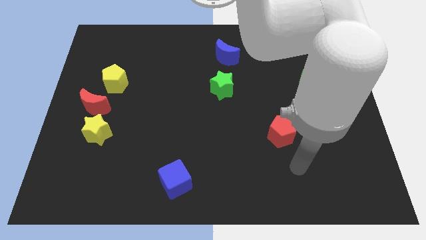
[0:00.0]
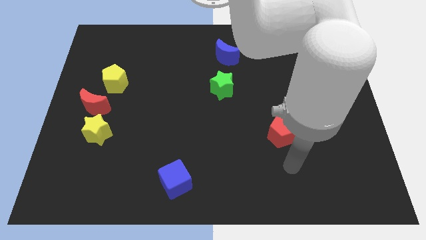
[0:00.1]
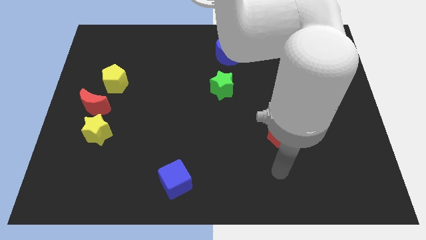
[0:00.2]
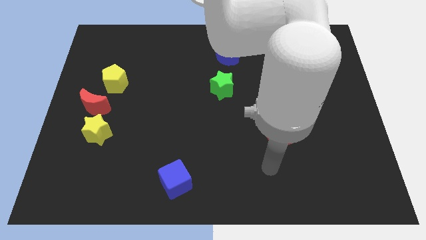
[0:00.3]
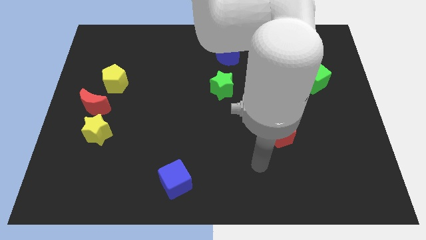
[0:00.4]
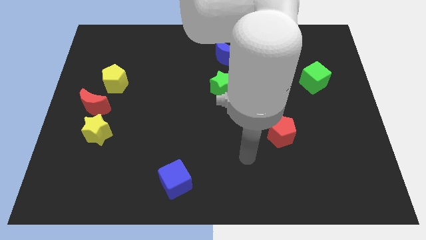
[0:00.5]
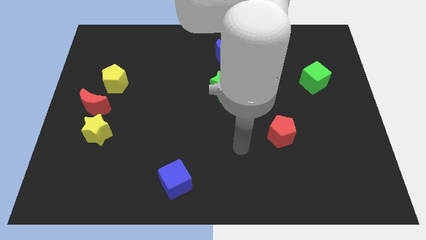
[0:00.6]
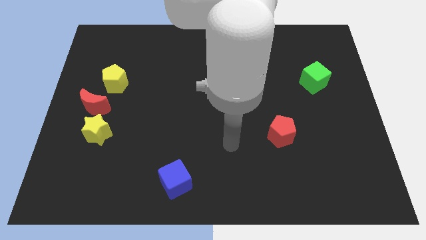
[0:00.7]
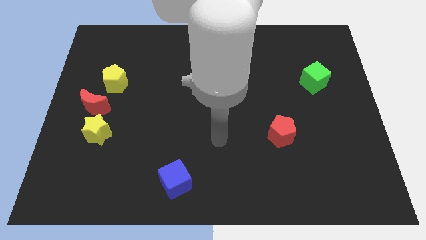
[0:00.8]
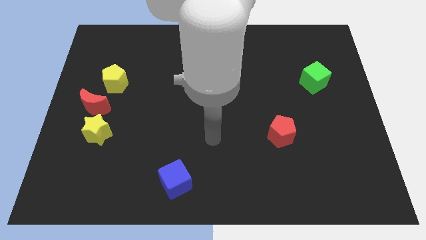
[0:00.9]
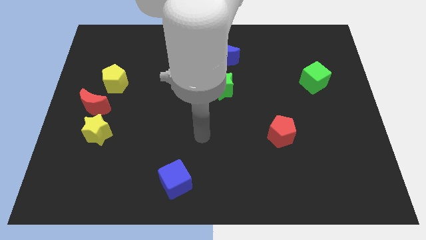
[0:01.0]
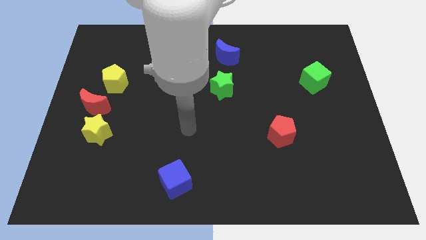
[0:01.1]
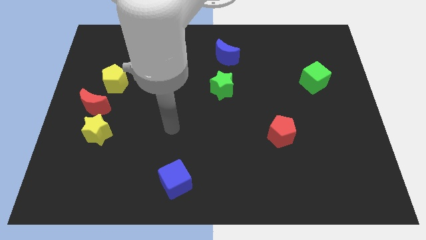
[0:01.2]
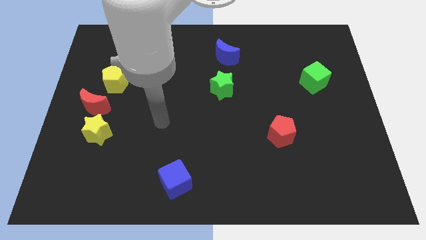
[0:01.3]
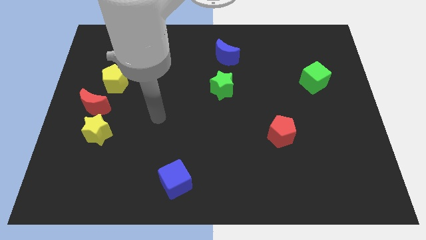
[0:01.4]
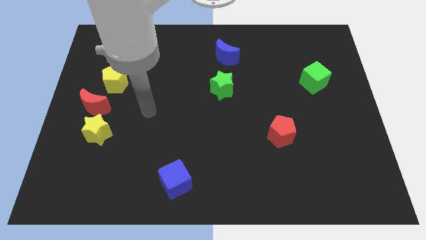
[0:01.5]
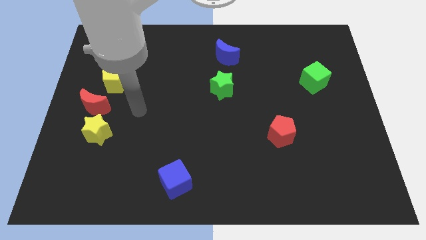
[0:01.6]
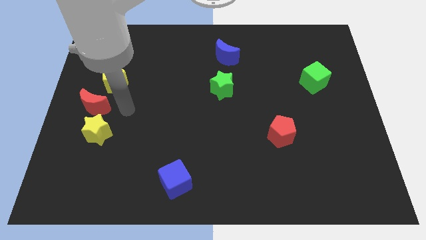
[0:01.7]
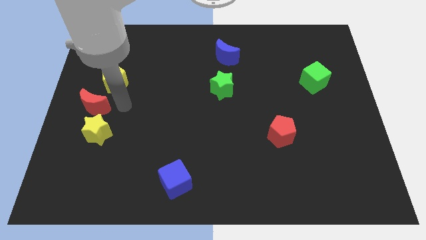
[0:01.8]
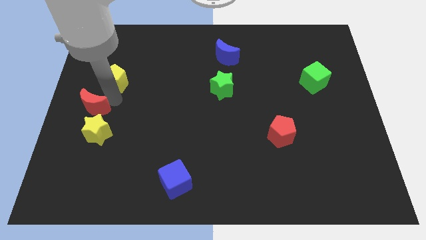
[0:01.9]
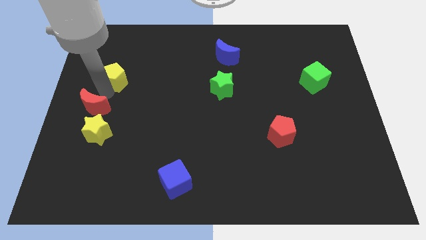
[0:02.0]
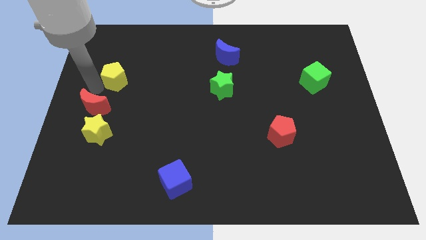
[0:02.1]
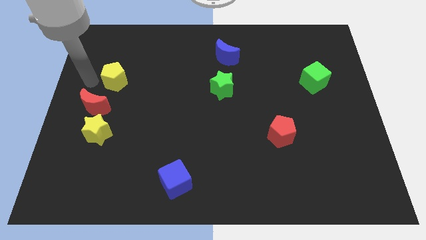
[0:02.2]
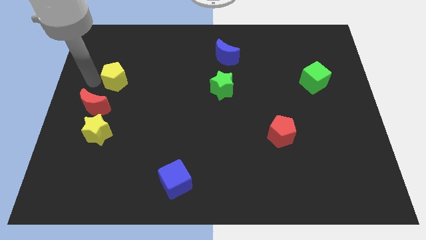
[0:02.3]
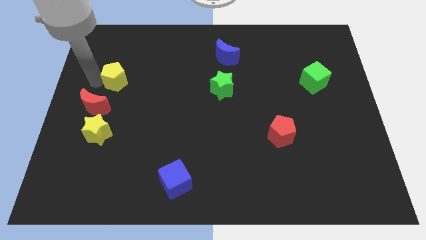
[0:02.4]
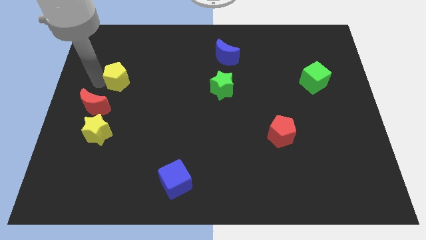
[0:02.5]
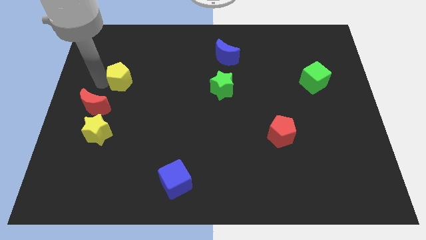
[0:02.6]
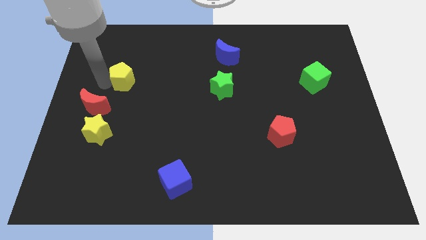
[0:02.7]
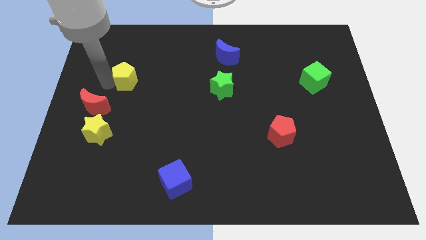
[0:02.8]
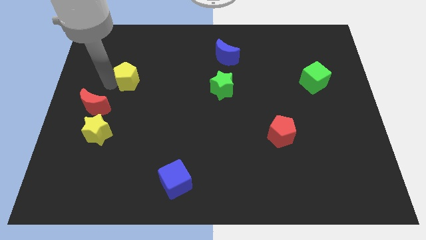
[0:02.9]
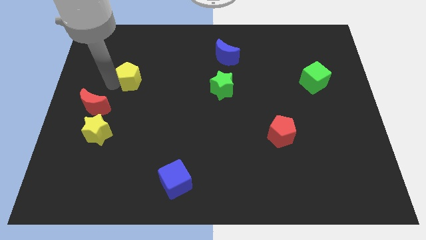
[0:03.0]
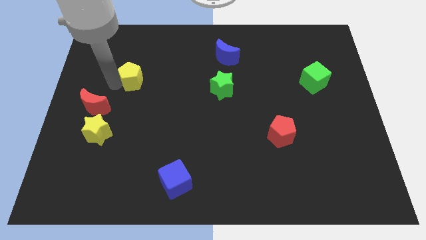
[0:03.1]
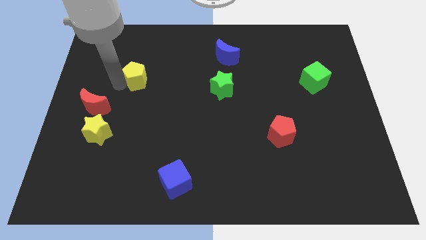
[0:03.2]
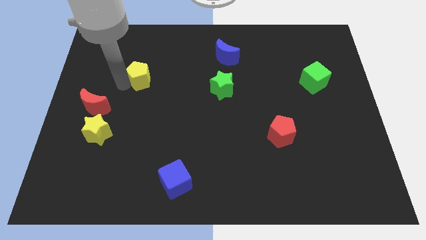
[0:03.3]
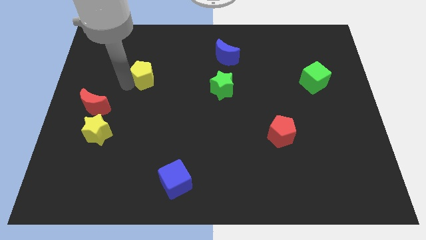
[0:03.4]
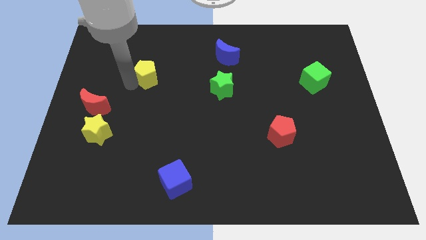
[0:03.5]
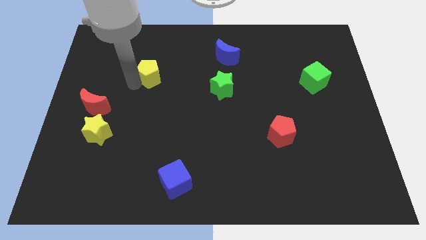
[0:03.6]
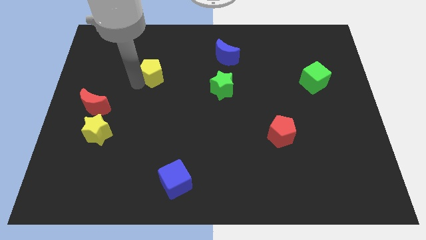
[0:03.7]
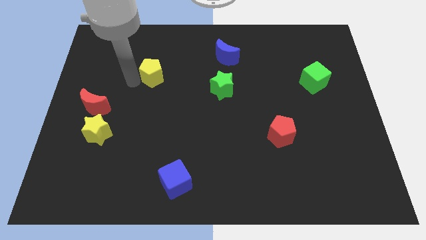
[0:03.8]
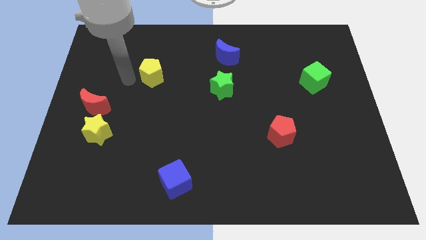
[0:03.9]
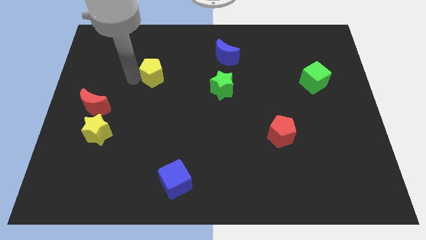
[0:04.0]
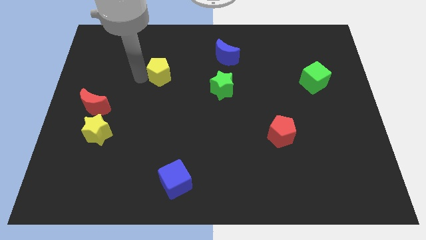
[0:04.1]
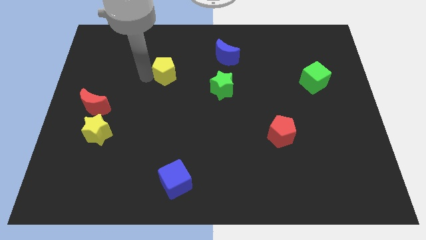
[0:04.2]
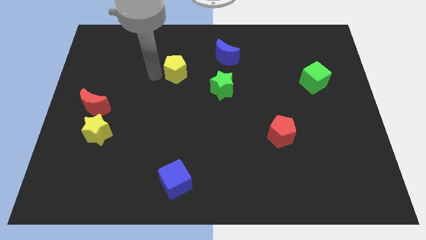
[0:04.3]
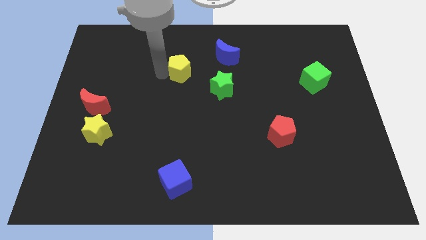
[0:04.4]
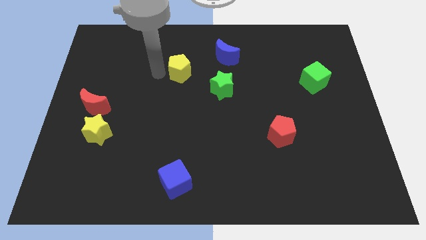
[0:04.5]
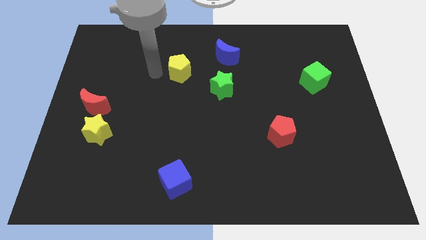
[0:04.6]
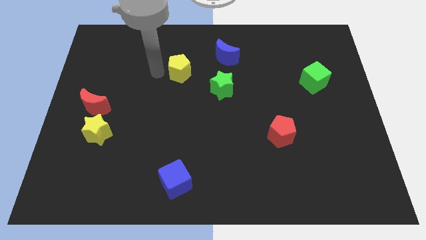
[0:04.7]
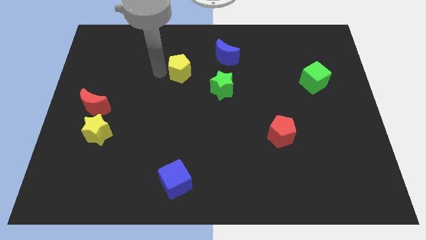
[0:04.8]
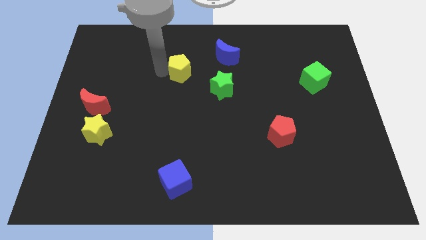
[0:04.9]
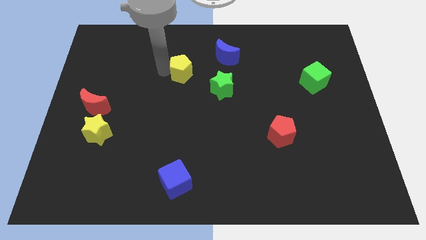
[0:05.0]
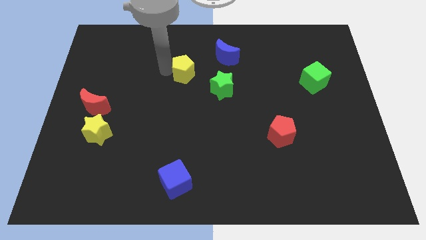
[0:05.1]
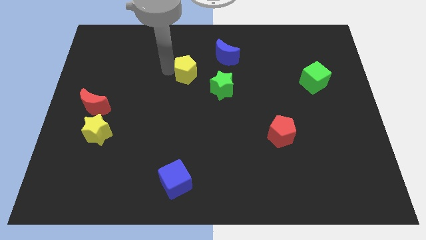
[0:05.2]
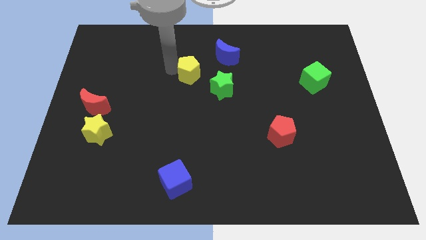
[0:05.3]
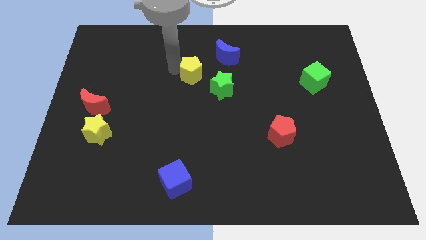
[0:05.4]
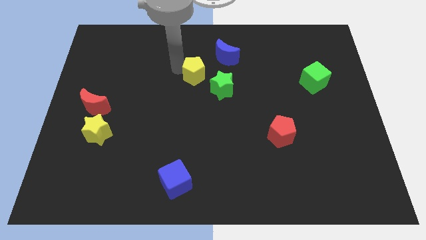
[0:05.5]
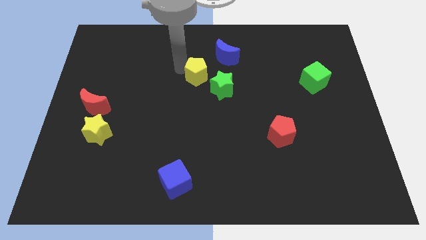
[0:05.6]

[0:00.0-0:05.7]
move the yellow pentagon right

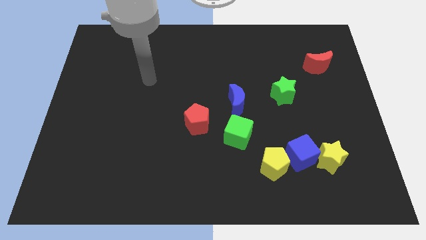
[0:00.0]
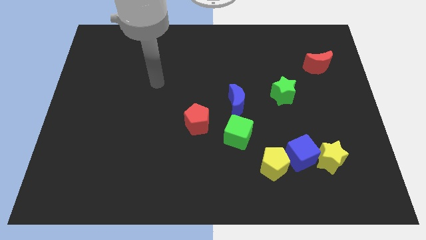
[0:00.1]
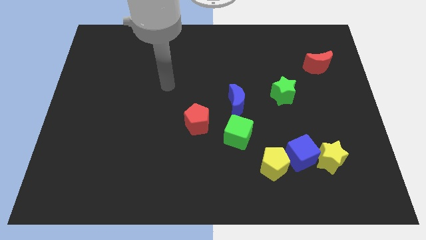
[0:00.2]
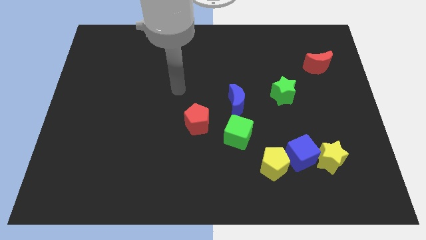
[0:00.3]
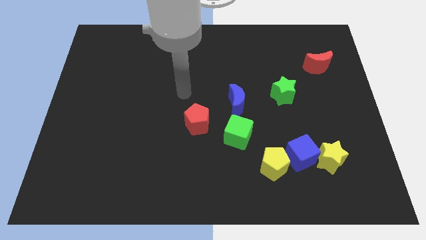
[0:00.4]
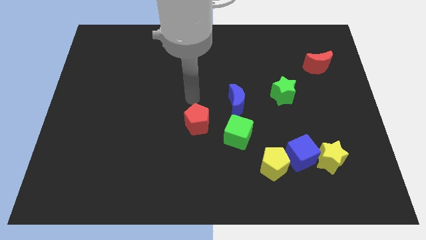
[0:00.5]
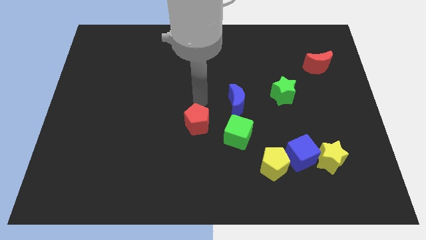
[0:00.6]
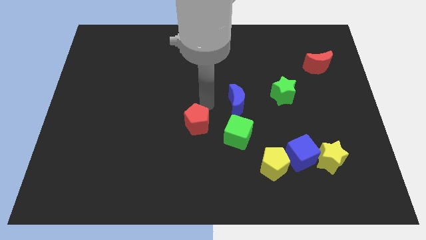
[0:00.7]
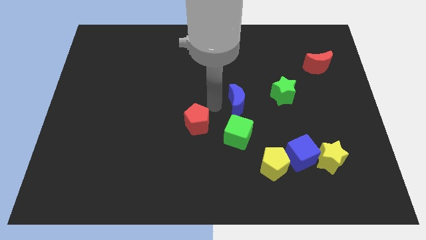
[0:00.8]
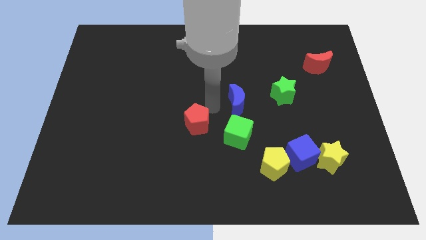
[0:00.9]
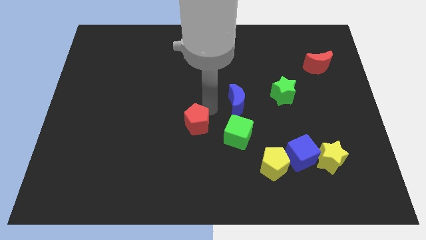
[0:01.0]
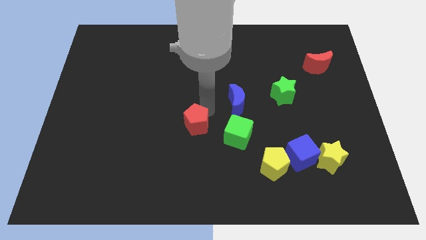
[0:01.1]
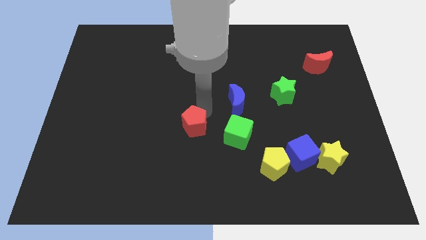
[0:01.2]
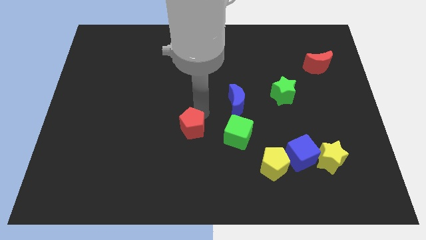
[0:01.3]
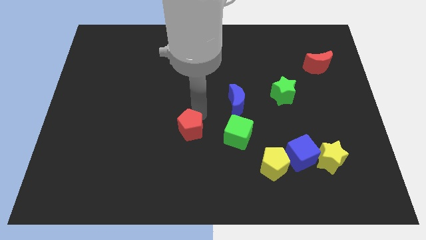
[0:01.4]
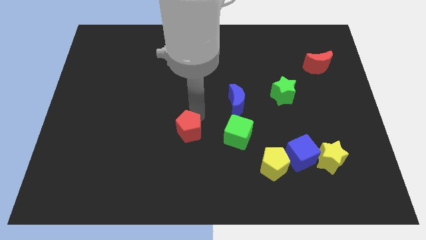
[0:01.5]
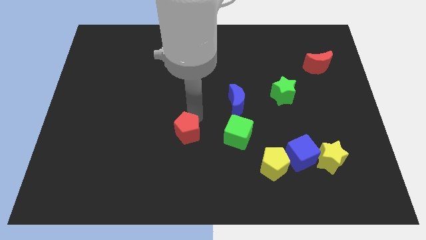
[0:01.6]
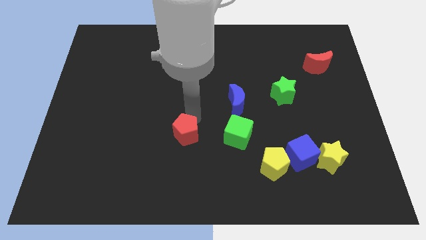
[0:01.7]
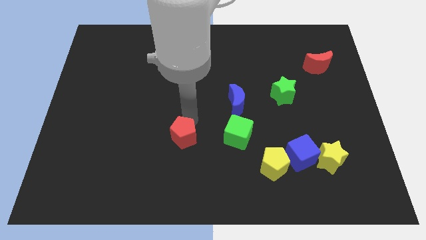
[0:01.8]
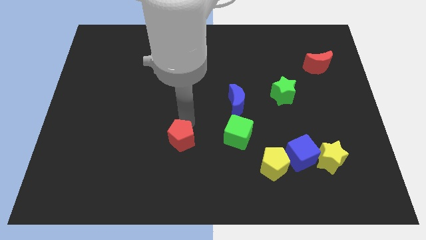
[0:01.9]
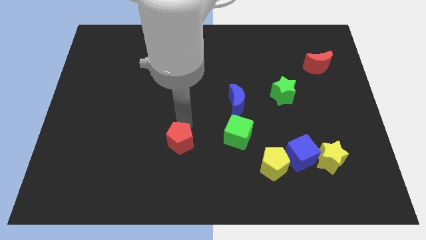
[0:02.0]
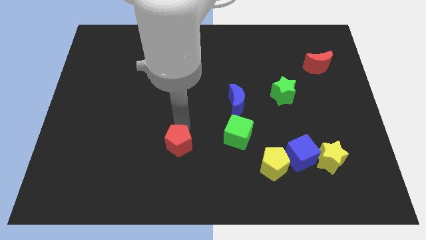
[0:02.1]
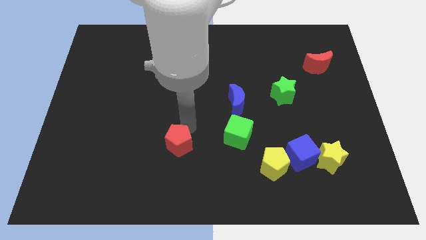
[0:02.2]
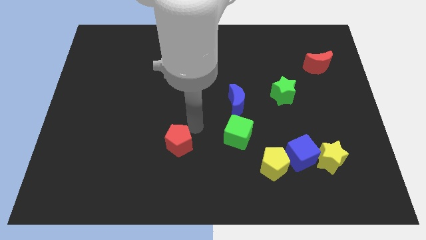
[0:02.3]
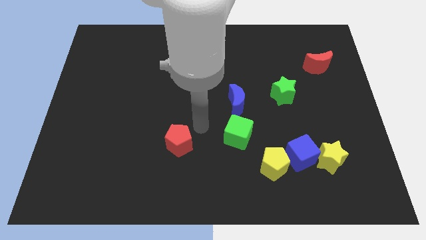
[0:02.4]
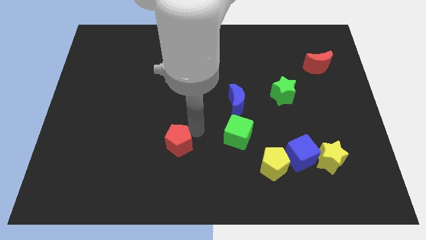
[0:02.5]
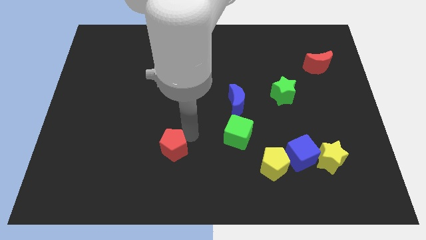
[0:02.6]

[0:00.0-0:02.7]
slide the red pentagon down and then left a little bit
